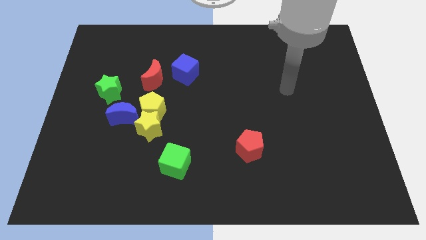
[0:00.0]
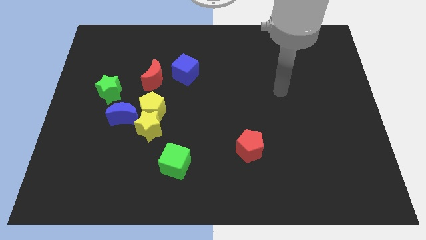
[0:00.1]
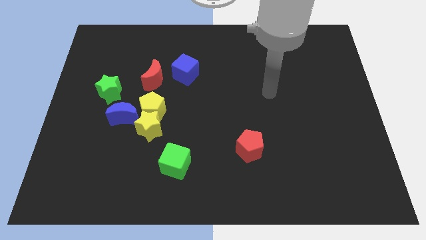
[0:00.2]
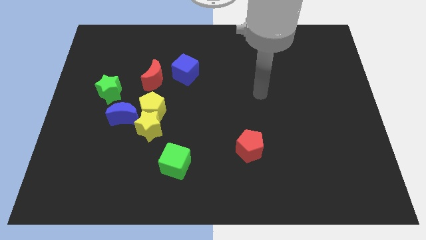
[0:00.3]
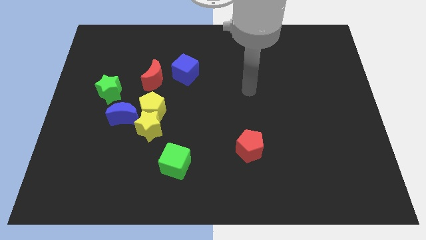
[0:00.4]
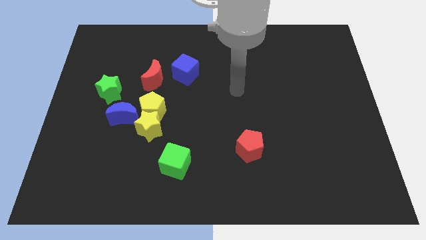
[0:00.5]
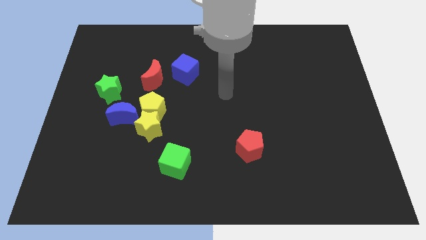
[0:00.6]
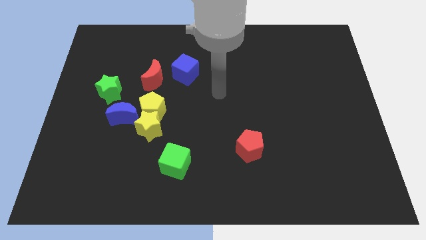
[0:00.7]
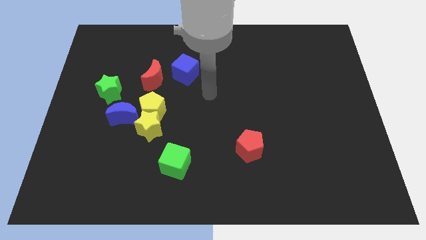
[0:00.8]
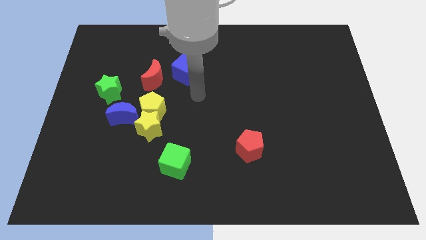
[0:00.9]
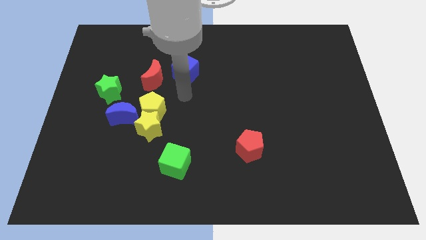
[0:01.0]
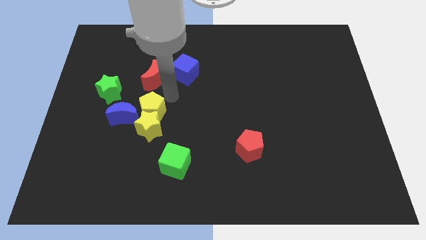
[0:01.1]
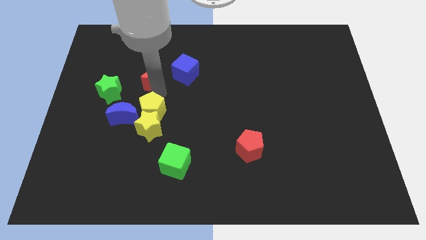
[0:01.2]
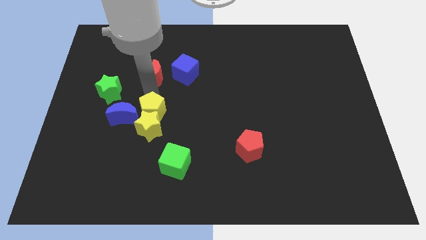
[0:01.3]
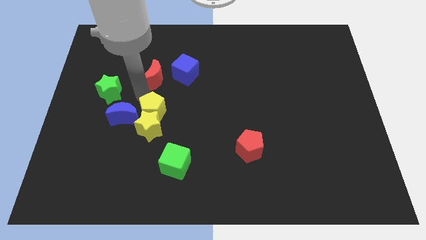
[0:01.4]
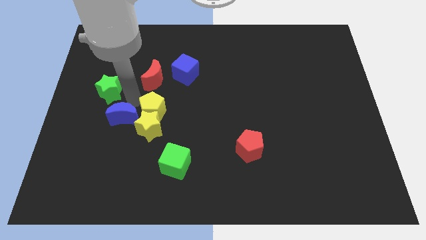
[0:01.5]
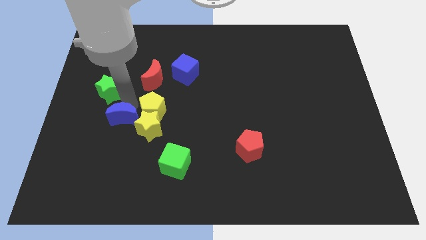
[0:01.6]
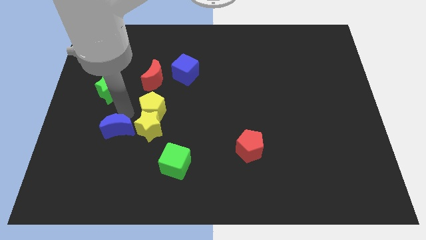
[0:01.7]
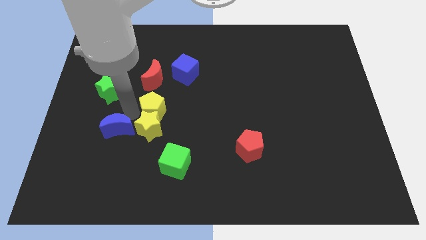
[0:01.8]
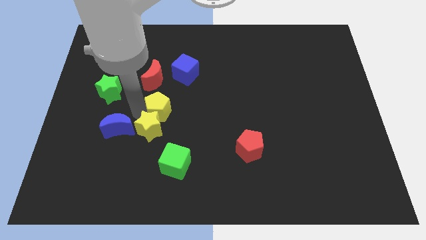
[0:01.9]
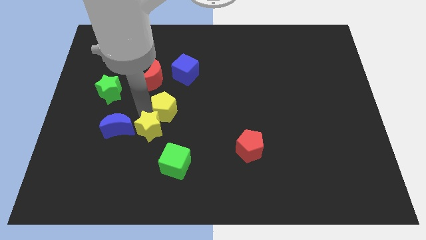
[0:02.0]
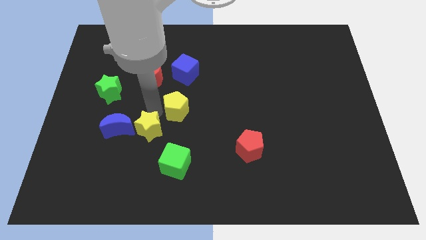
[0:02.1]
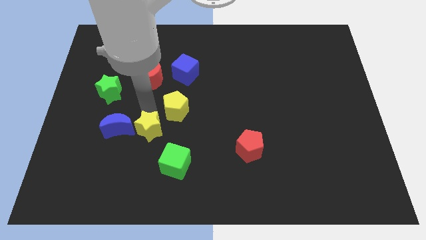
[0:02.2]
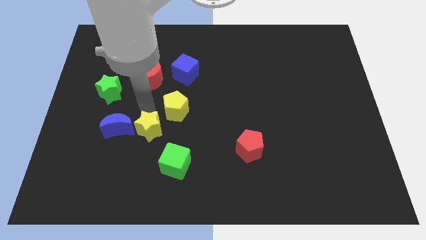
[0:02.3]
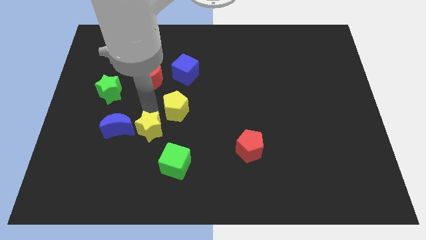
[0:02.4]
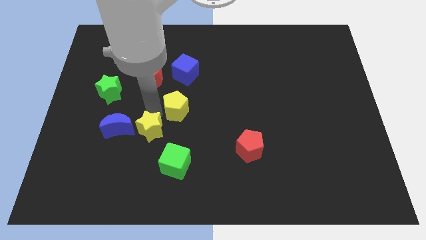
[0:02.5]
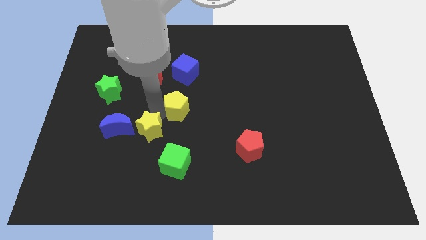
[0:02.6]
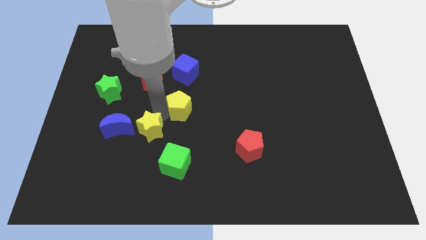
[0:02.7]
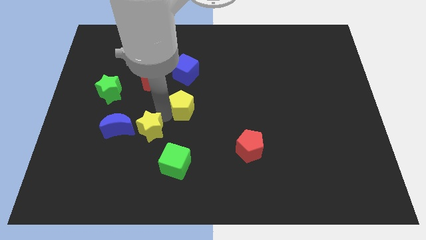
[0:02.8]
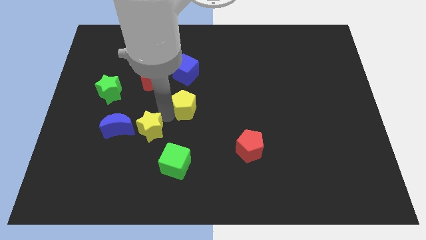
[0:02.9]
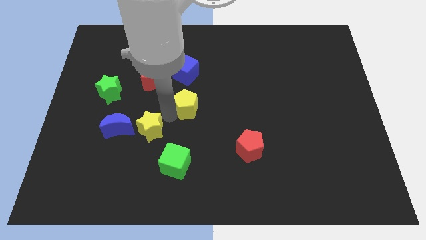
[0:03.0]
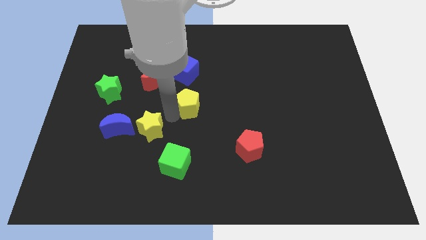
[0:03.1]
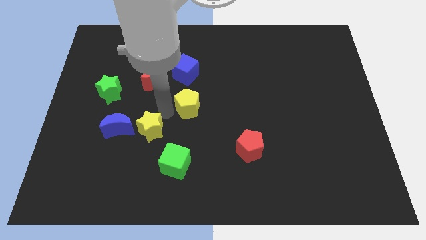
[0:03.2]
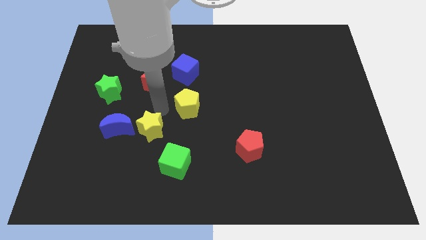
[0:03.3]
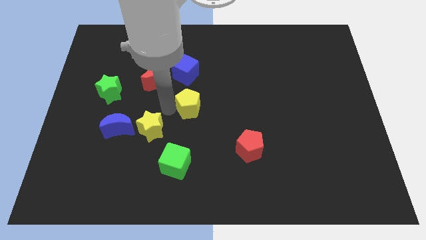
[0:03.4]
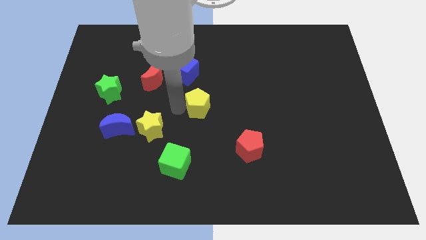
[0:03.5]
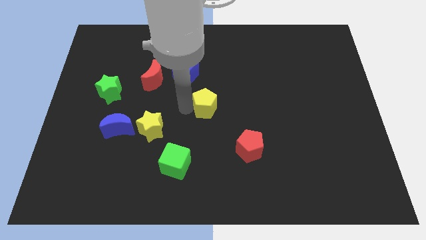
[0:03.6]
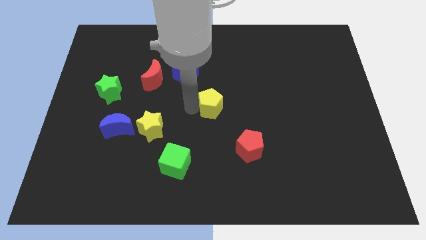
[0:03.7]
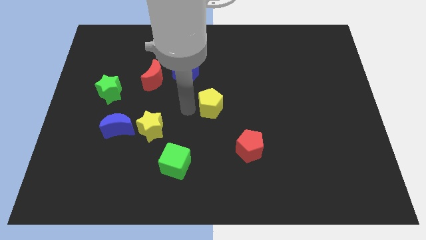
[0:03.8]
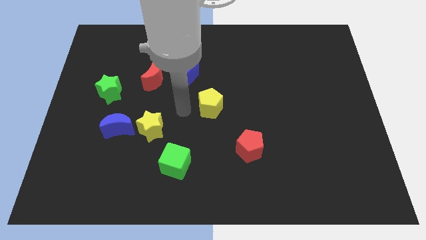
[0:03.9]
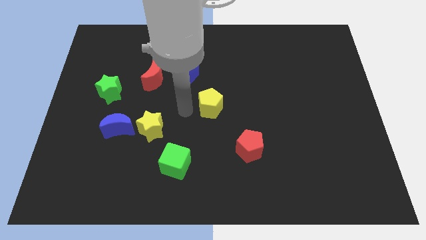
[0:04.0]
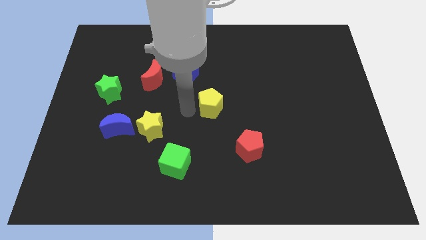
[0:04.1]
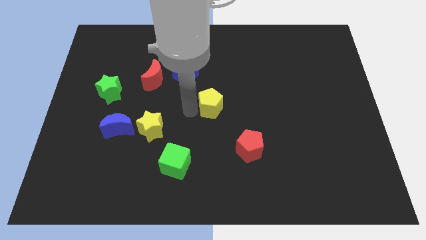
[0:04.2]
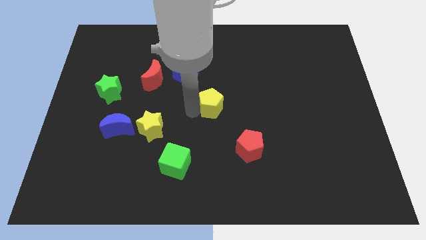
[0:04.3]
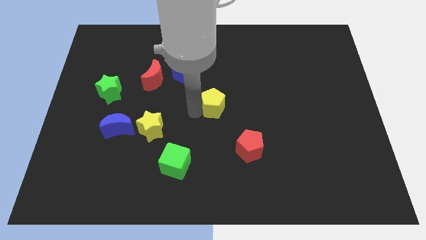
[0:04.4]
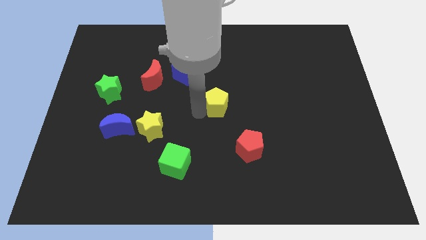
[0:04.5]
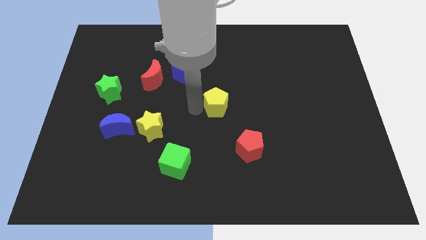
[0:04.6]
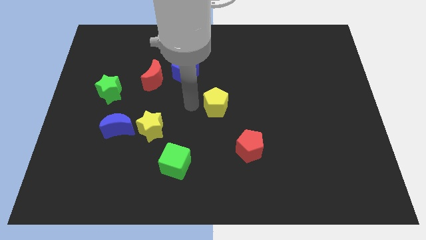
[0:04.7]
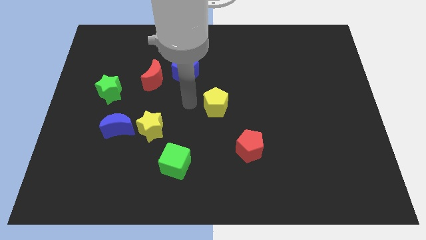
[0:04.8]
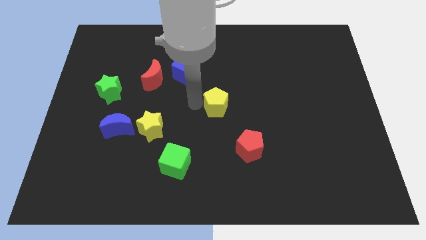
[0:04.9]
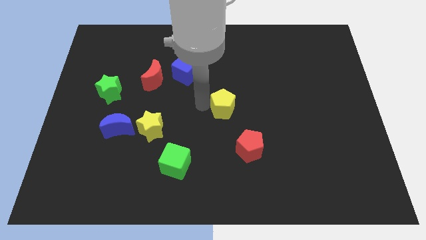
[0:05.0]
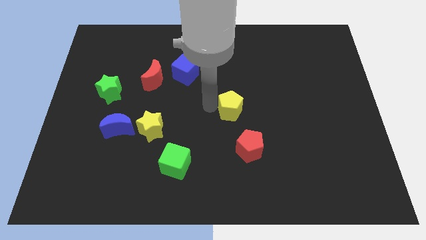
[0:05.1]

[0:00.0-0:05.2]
put the yellow pentagon above the red pentagon

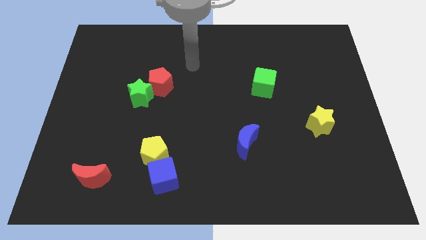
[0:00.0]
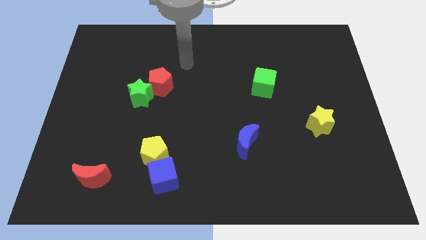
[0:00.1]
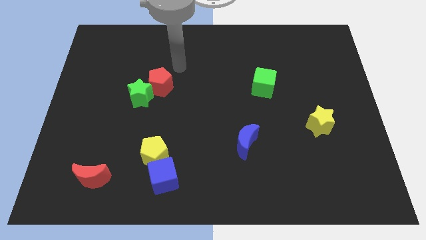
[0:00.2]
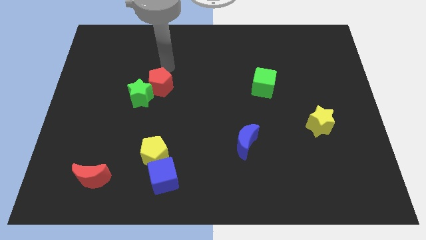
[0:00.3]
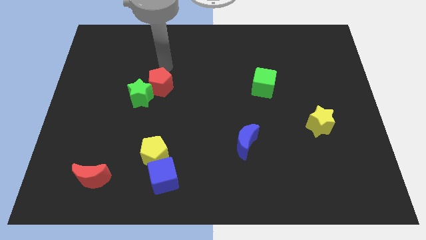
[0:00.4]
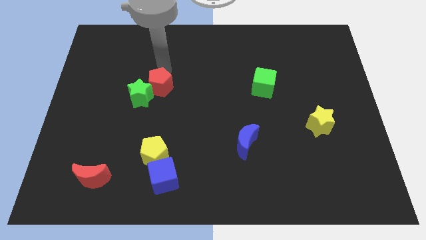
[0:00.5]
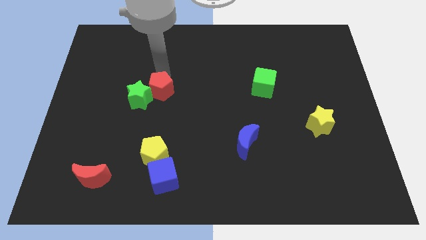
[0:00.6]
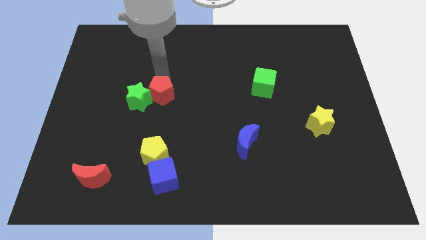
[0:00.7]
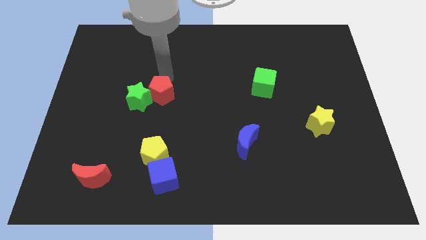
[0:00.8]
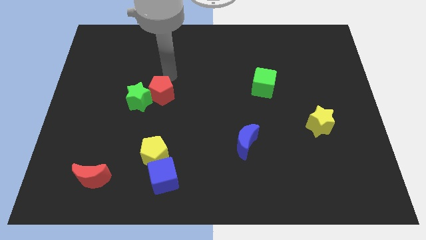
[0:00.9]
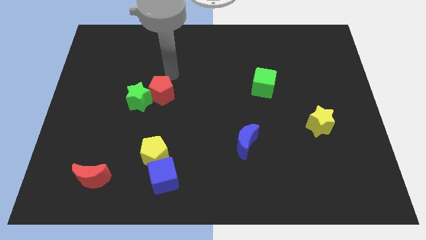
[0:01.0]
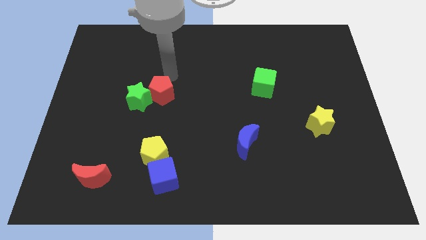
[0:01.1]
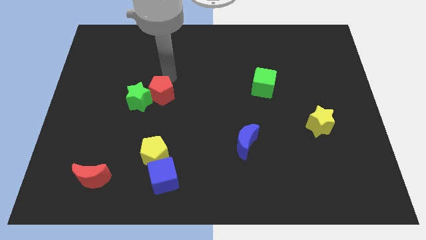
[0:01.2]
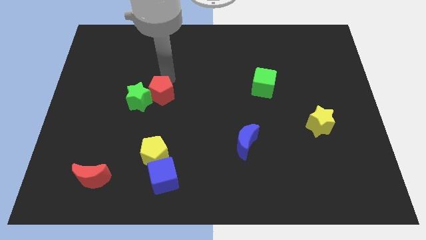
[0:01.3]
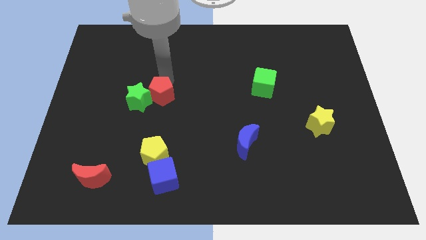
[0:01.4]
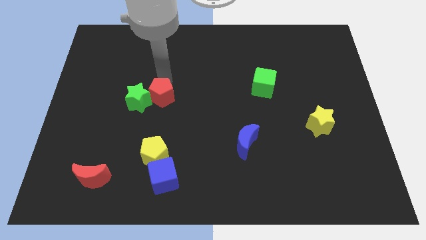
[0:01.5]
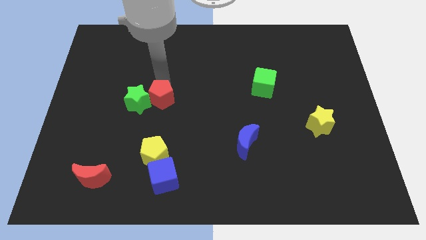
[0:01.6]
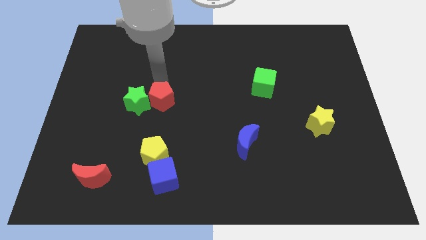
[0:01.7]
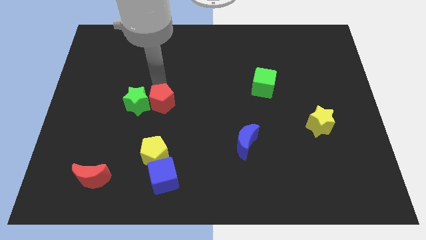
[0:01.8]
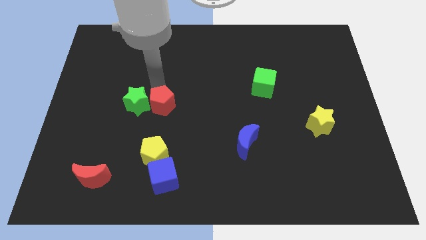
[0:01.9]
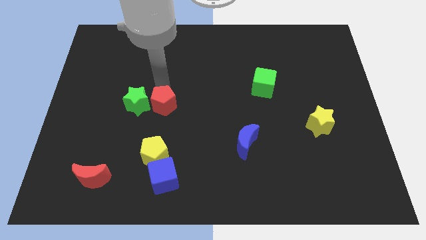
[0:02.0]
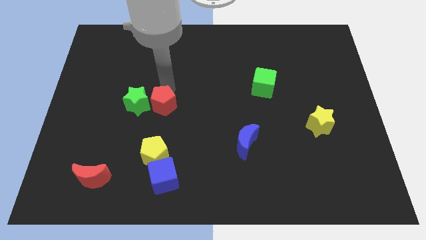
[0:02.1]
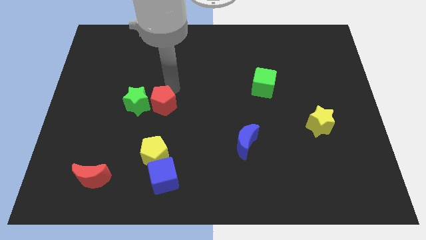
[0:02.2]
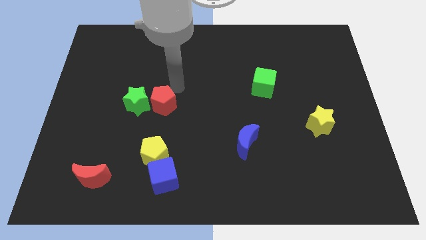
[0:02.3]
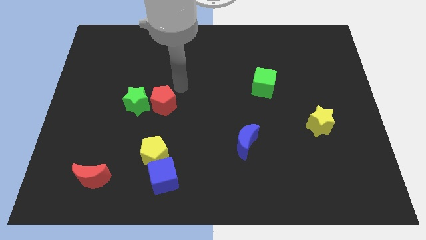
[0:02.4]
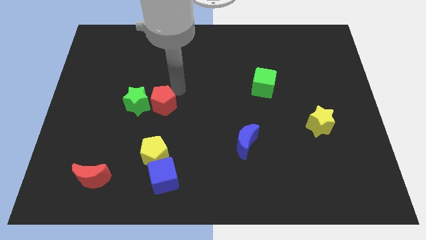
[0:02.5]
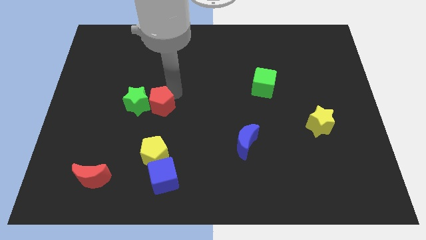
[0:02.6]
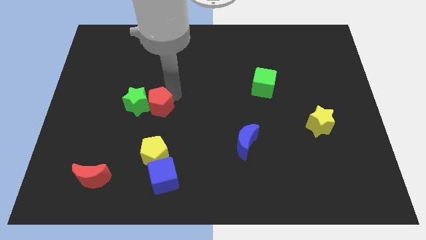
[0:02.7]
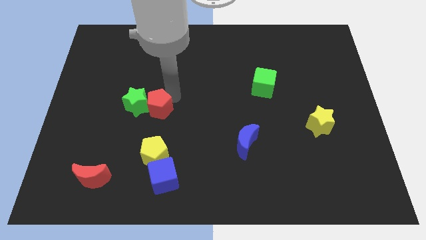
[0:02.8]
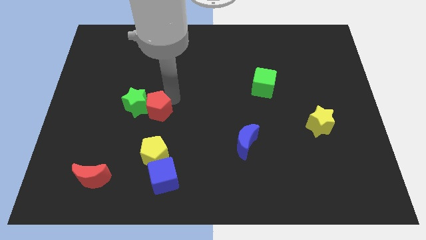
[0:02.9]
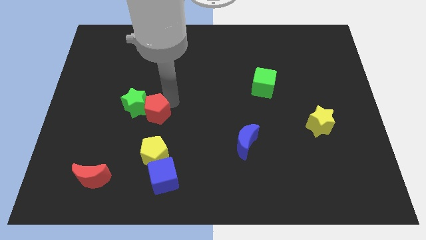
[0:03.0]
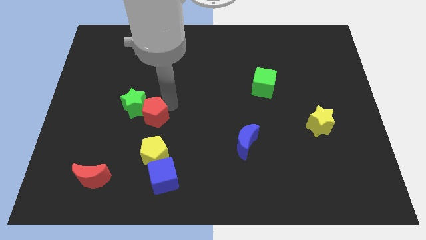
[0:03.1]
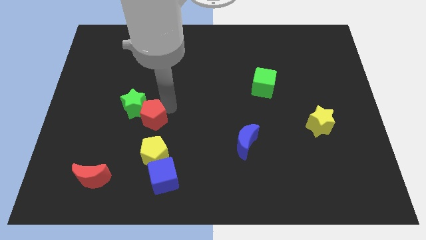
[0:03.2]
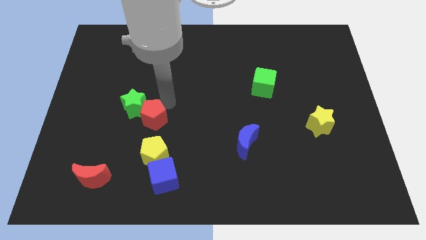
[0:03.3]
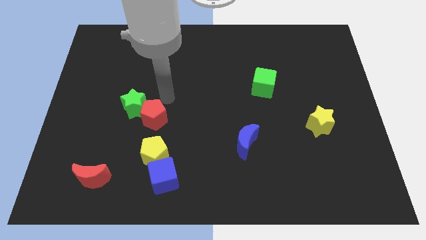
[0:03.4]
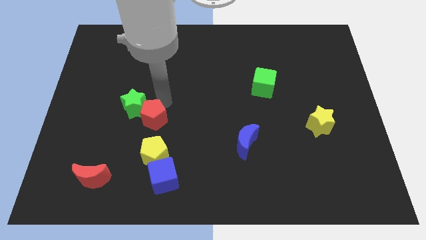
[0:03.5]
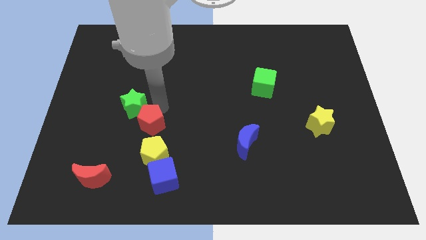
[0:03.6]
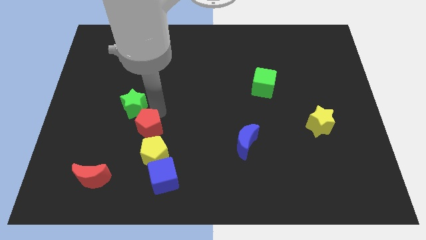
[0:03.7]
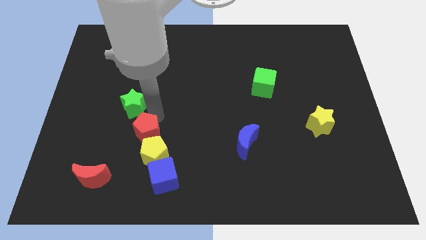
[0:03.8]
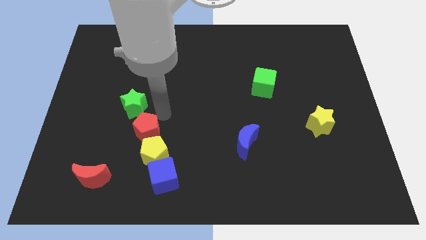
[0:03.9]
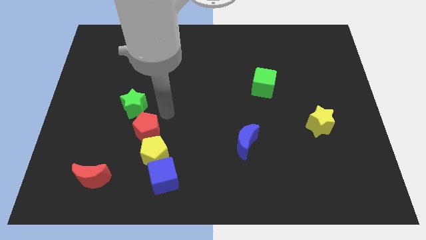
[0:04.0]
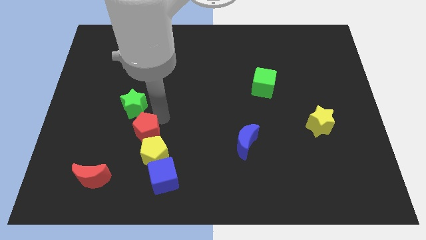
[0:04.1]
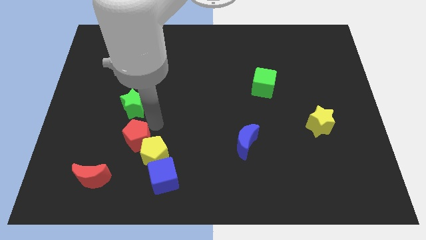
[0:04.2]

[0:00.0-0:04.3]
put the red pentagon to the top right of the red moon
